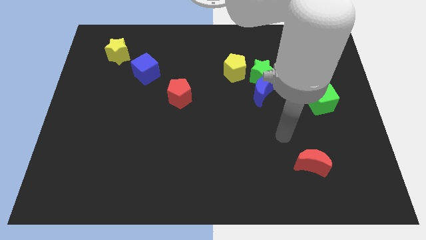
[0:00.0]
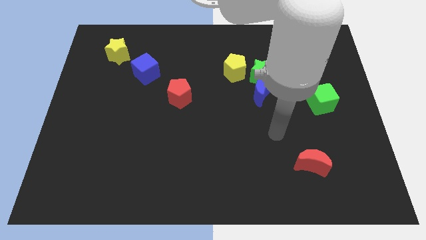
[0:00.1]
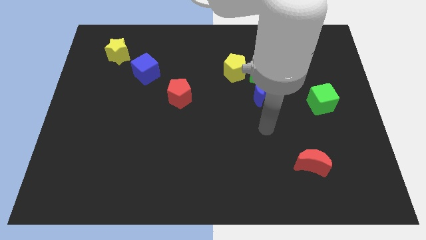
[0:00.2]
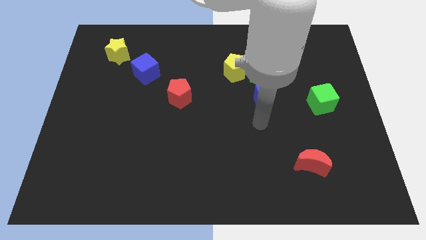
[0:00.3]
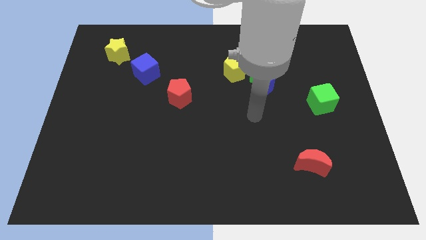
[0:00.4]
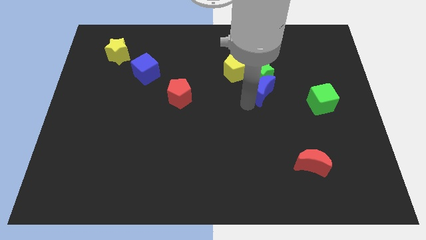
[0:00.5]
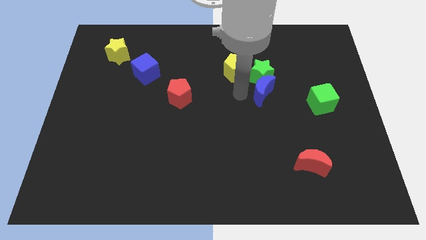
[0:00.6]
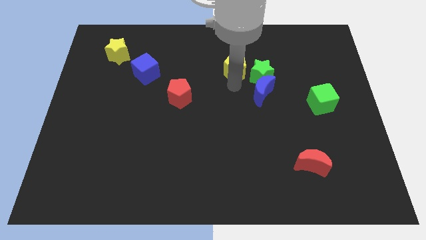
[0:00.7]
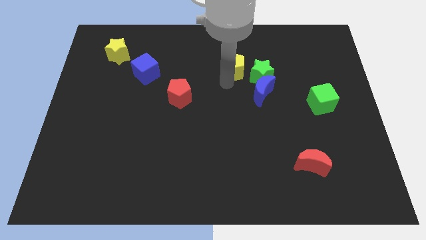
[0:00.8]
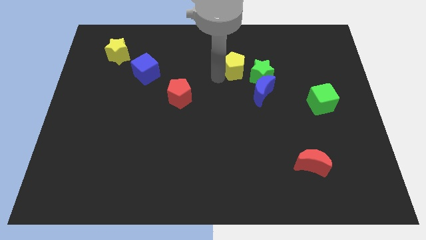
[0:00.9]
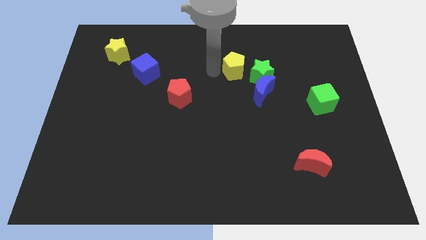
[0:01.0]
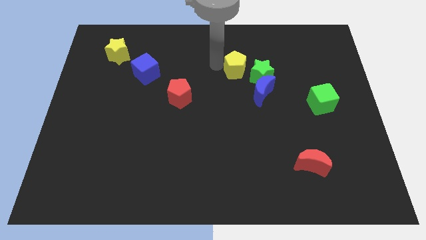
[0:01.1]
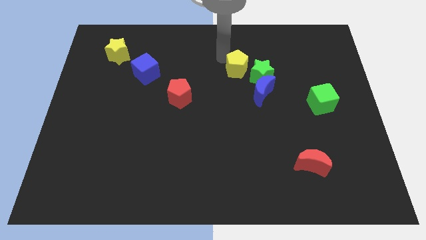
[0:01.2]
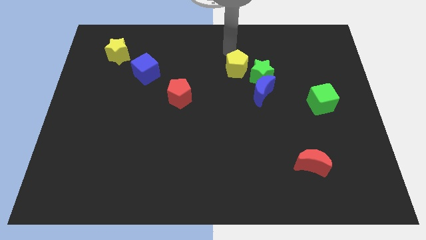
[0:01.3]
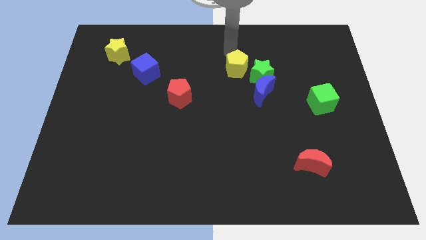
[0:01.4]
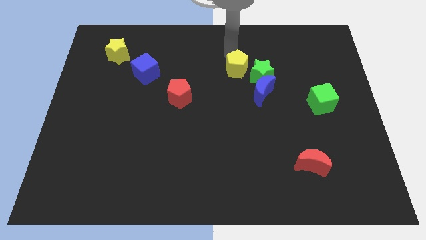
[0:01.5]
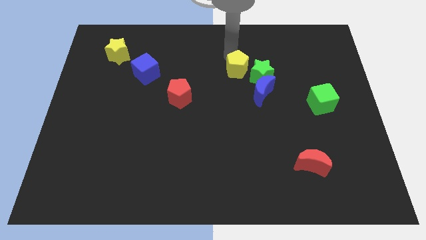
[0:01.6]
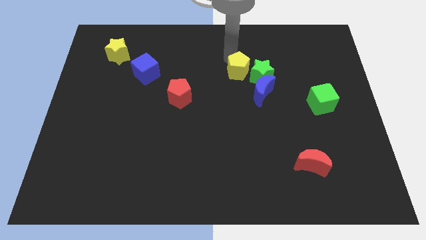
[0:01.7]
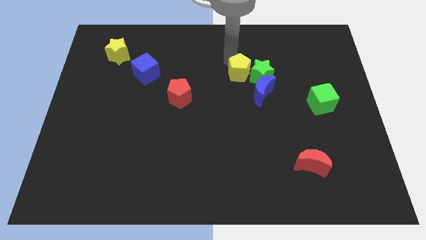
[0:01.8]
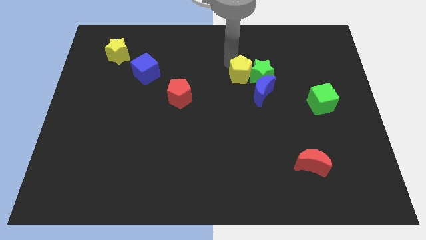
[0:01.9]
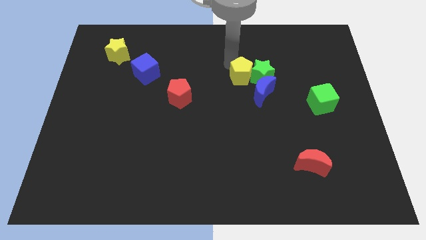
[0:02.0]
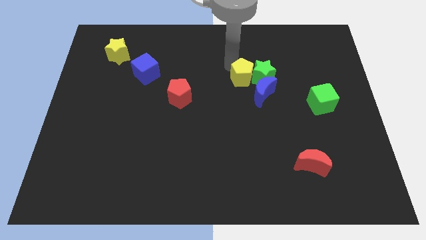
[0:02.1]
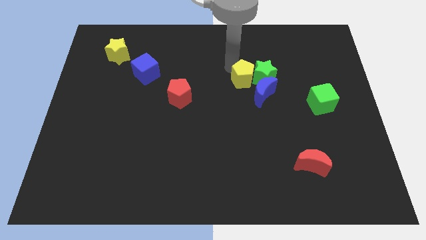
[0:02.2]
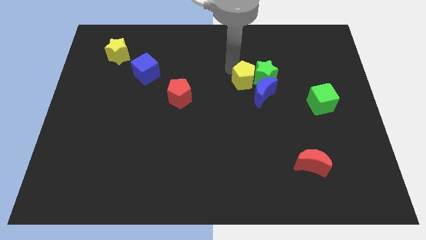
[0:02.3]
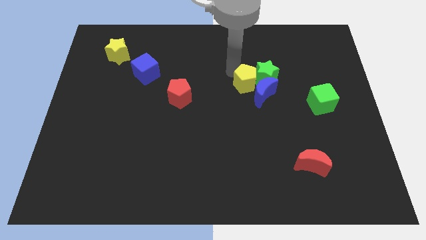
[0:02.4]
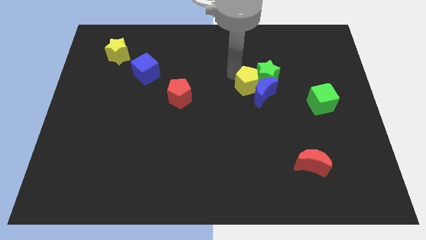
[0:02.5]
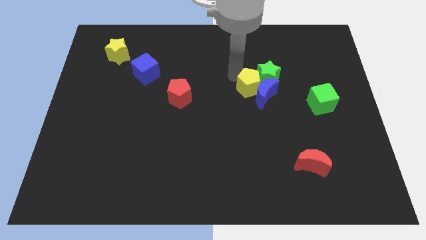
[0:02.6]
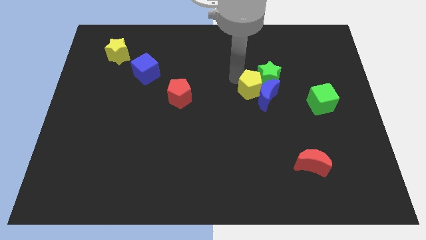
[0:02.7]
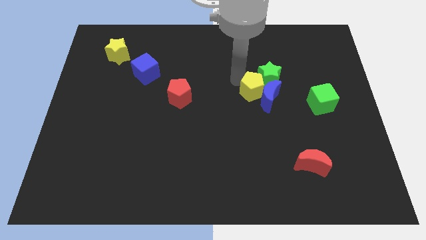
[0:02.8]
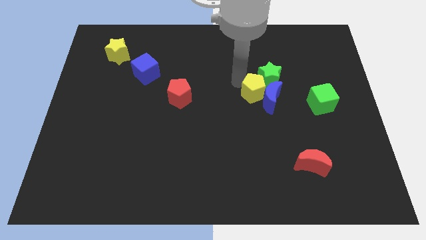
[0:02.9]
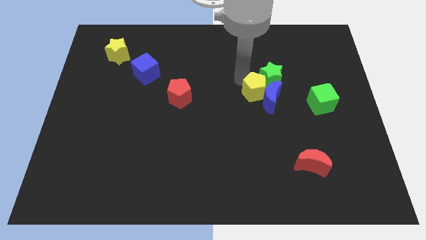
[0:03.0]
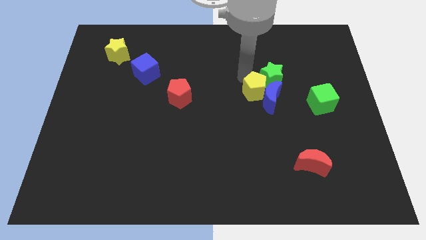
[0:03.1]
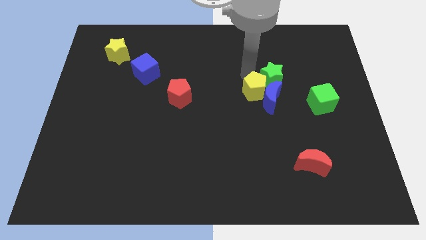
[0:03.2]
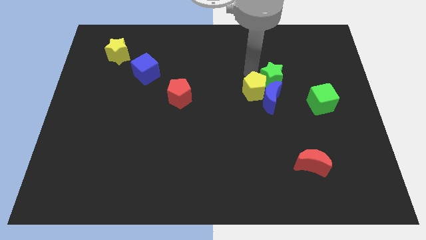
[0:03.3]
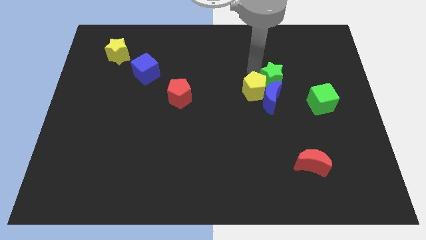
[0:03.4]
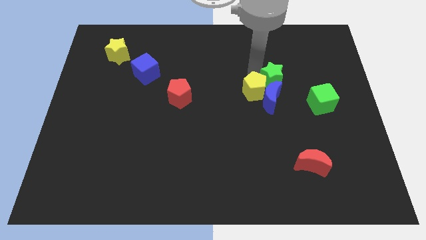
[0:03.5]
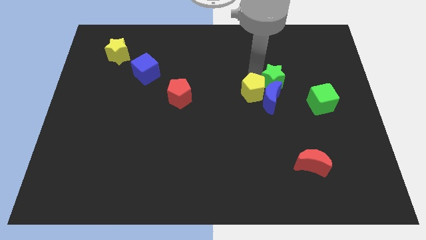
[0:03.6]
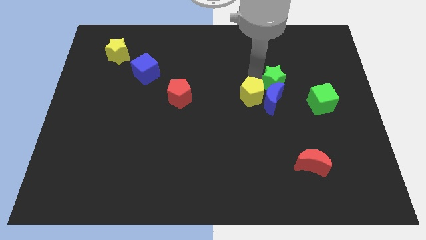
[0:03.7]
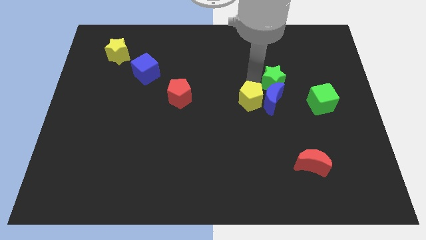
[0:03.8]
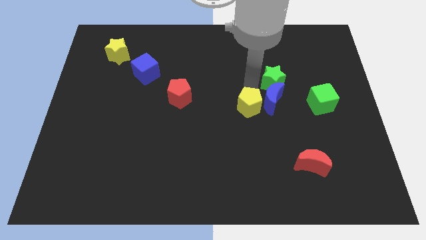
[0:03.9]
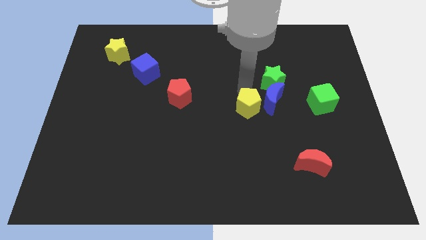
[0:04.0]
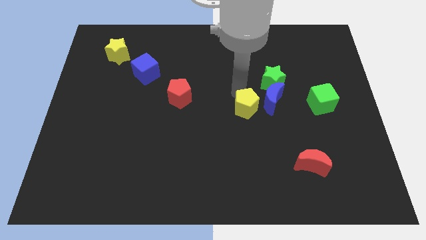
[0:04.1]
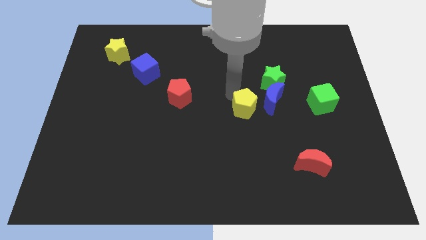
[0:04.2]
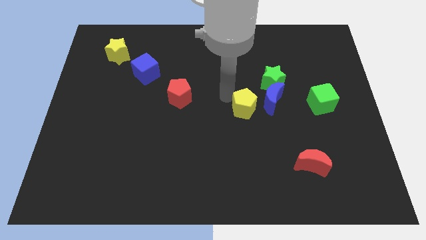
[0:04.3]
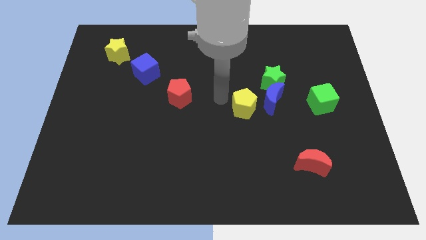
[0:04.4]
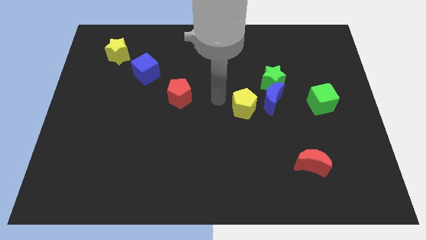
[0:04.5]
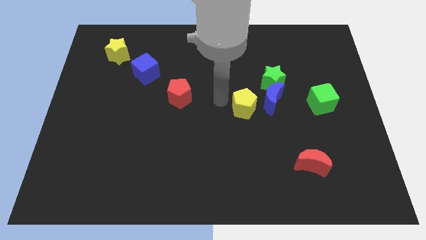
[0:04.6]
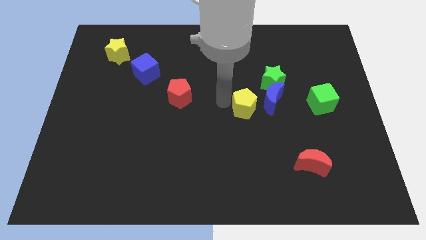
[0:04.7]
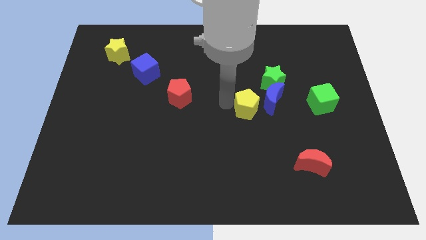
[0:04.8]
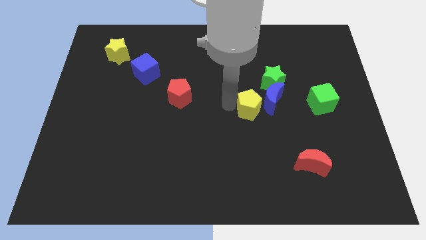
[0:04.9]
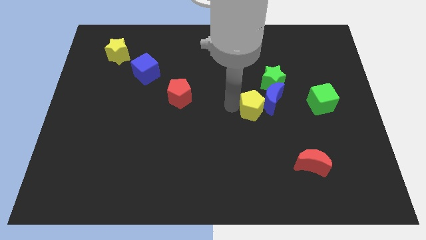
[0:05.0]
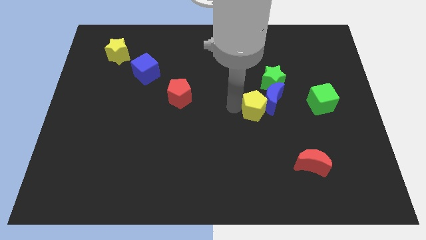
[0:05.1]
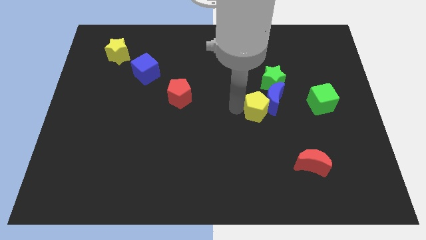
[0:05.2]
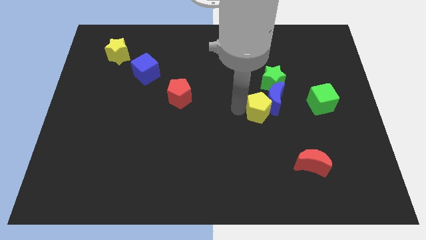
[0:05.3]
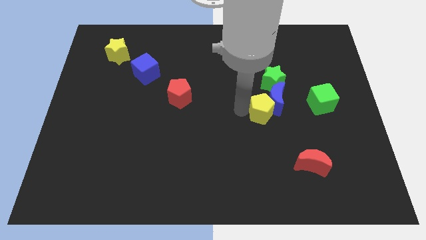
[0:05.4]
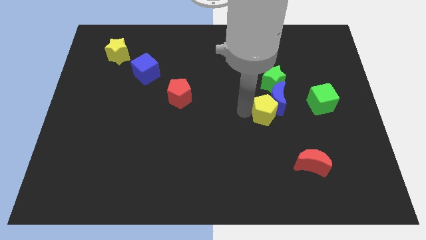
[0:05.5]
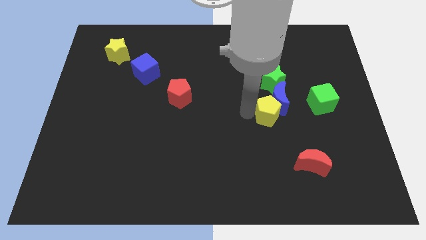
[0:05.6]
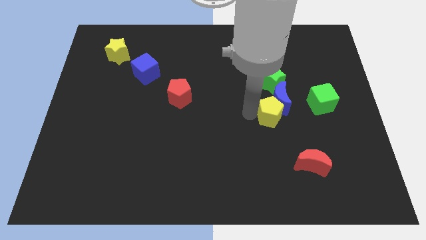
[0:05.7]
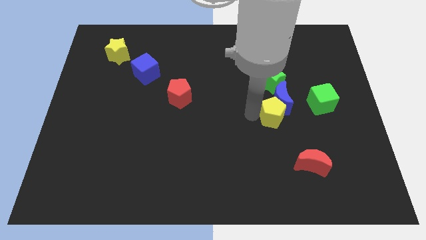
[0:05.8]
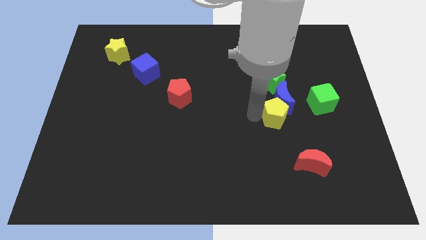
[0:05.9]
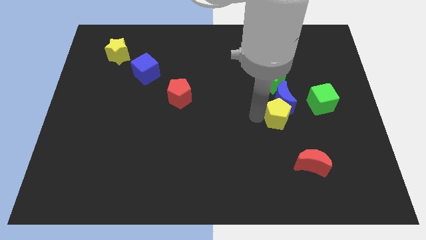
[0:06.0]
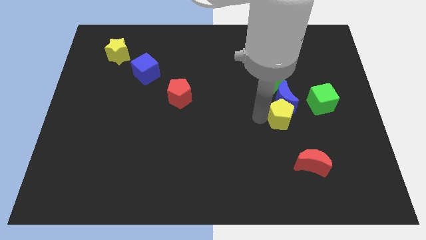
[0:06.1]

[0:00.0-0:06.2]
move the yellow pentagon to the bottom left of the green cube
